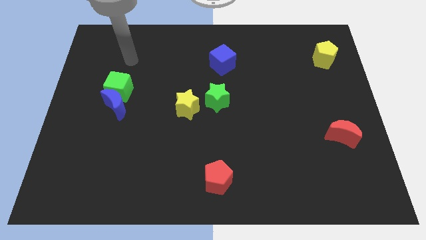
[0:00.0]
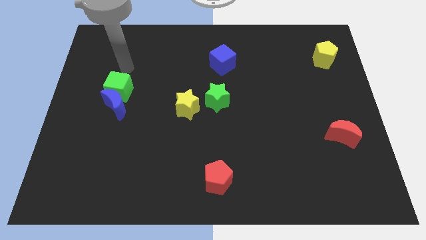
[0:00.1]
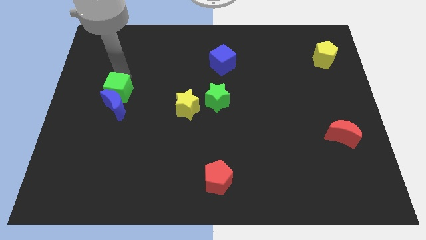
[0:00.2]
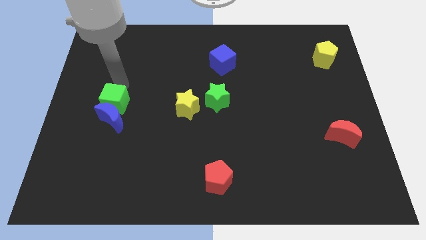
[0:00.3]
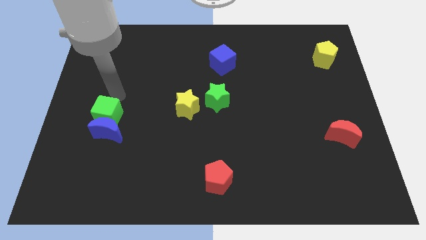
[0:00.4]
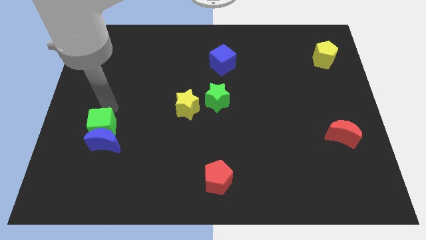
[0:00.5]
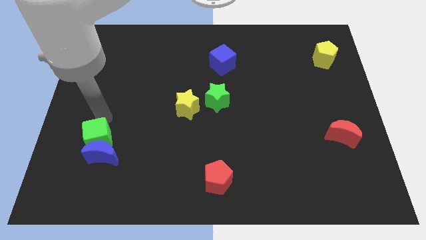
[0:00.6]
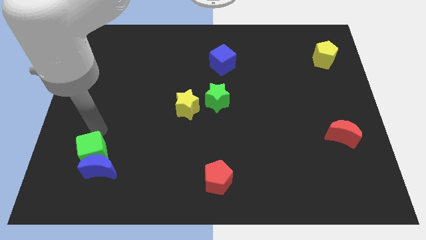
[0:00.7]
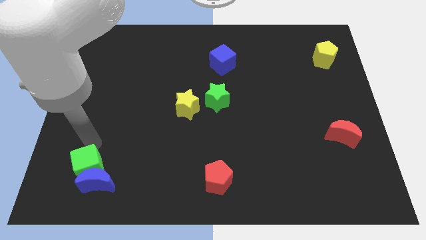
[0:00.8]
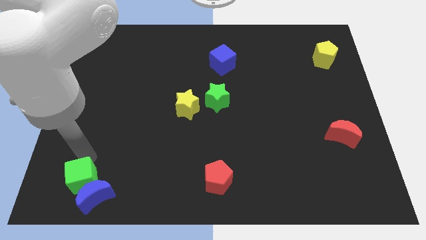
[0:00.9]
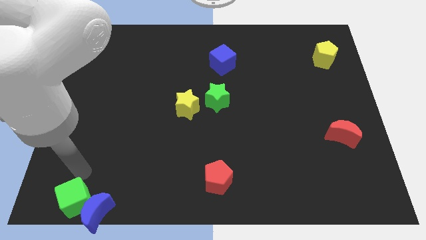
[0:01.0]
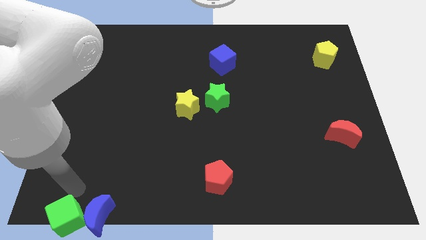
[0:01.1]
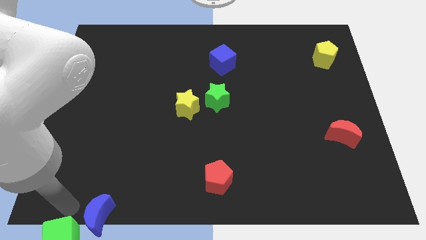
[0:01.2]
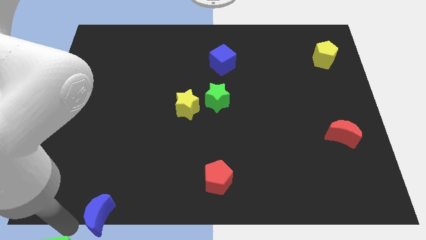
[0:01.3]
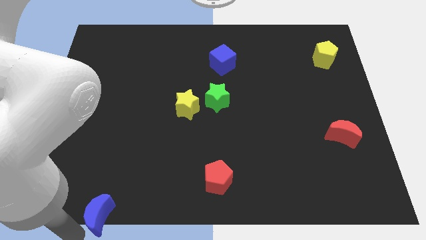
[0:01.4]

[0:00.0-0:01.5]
move the blue moon away from the green cube

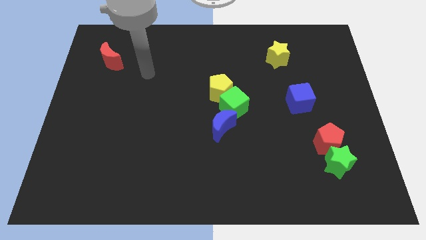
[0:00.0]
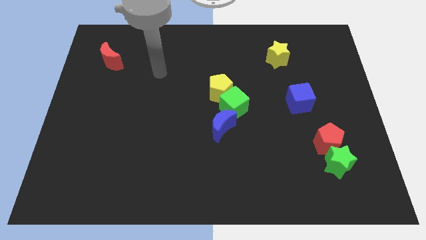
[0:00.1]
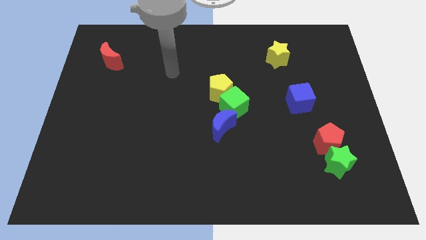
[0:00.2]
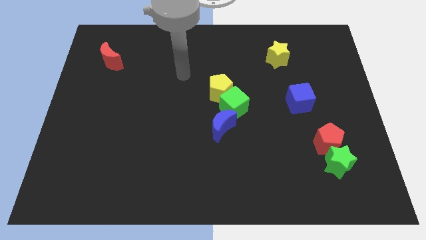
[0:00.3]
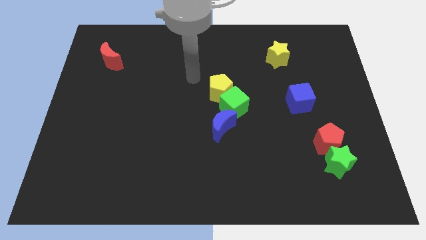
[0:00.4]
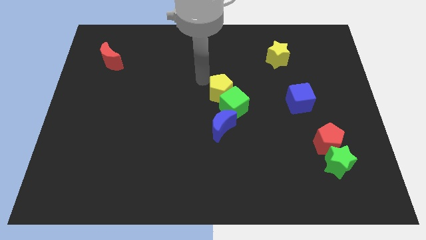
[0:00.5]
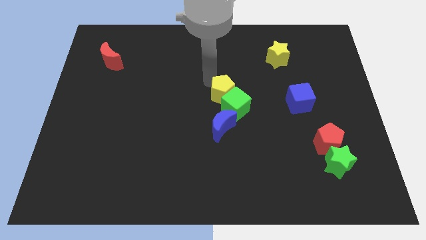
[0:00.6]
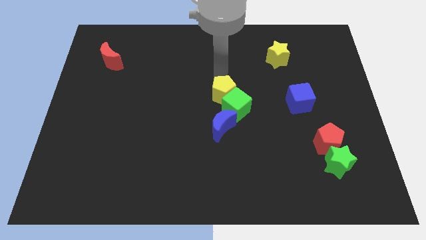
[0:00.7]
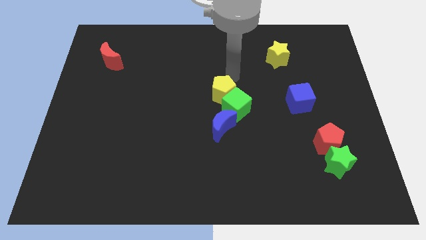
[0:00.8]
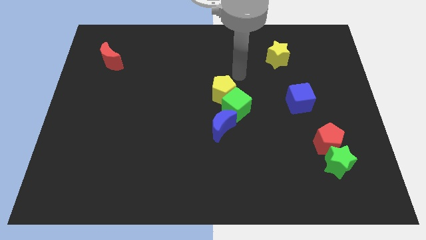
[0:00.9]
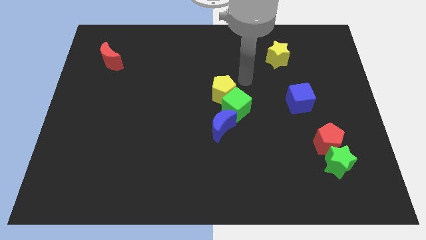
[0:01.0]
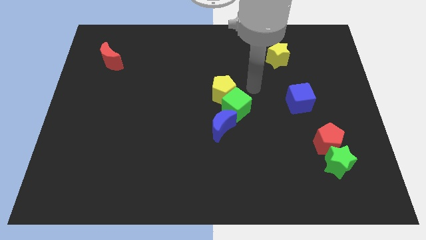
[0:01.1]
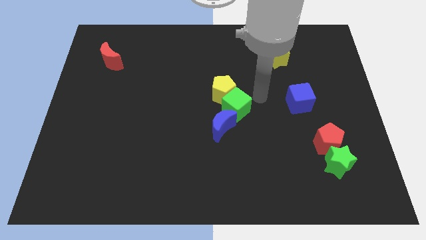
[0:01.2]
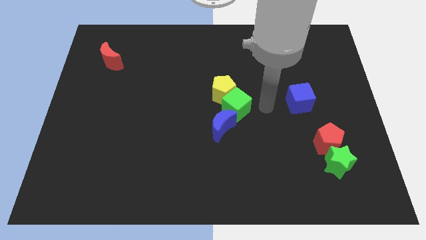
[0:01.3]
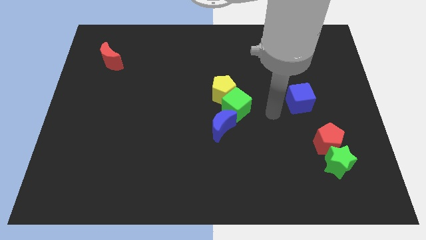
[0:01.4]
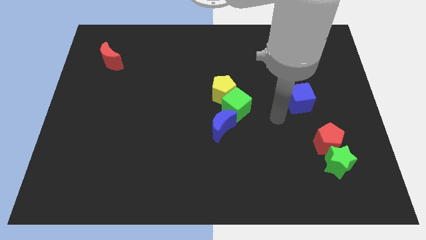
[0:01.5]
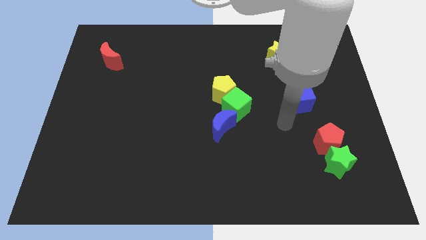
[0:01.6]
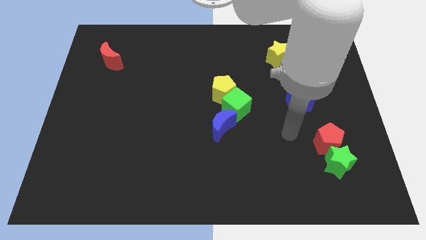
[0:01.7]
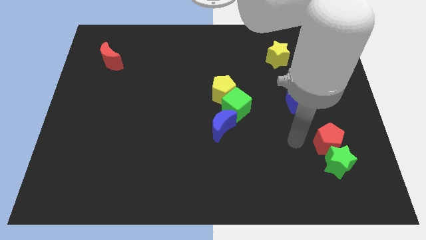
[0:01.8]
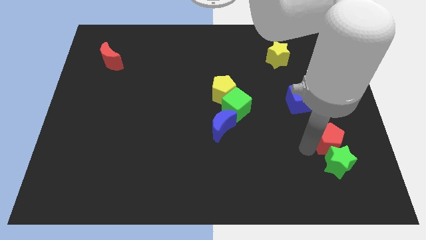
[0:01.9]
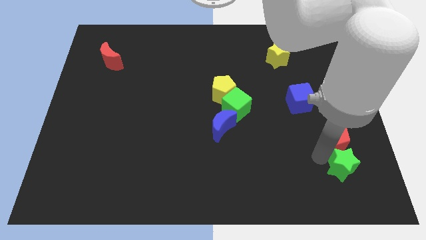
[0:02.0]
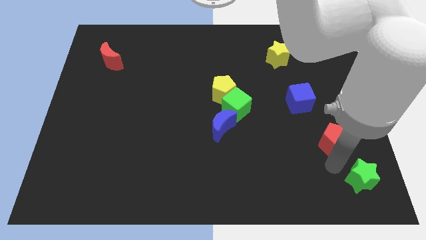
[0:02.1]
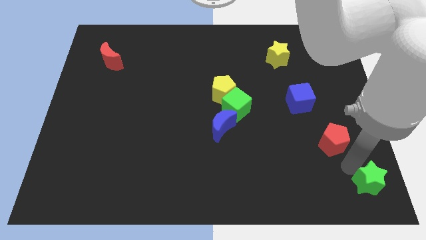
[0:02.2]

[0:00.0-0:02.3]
pull the red pentagon apart from the green star

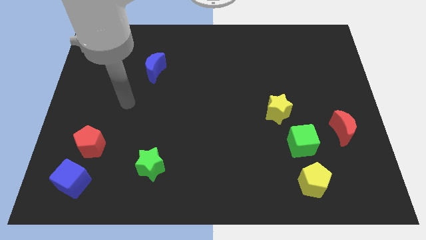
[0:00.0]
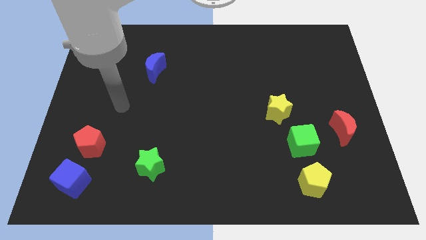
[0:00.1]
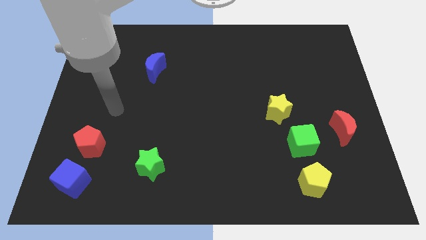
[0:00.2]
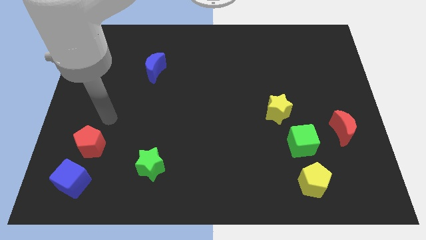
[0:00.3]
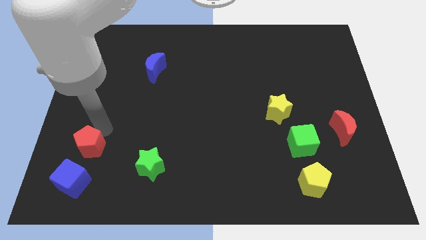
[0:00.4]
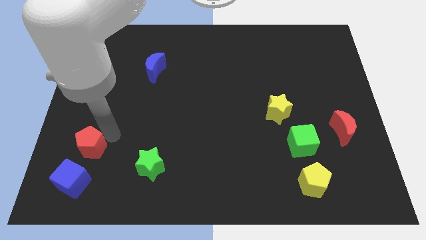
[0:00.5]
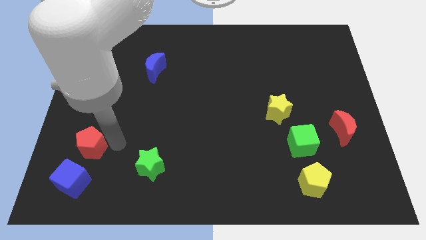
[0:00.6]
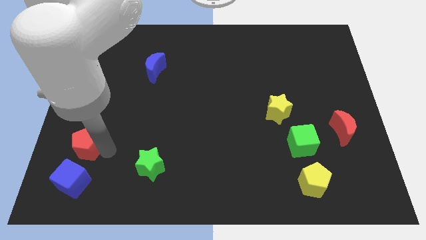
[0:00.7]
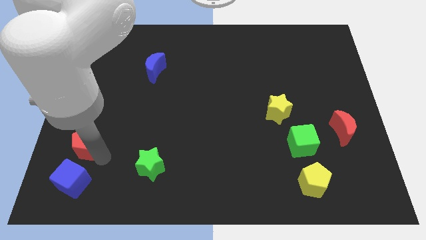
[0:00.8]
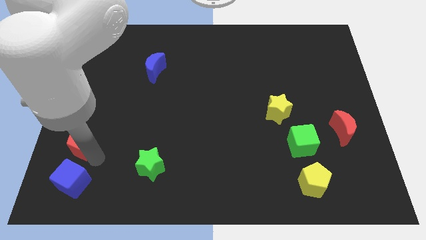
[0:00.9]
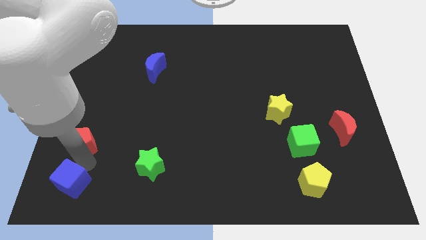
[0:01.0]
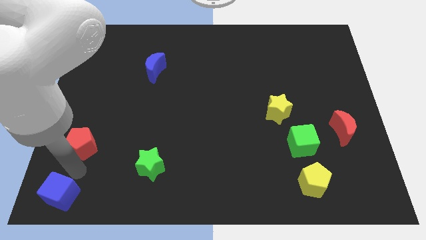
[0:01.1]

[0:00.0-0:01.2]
pull the red pentagon apart from the blue cube

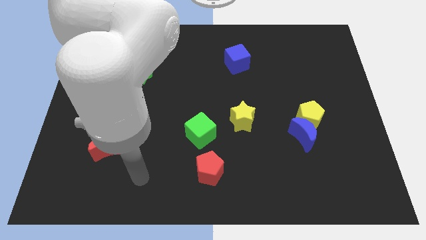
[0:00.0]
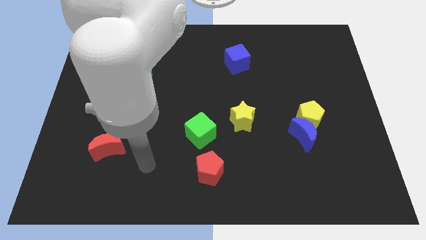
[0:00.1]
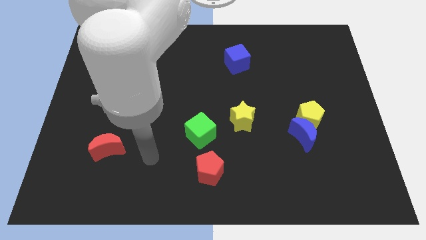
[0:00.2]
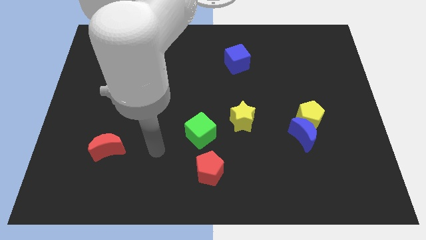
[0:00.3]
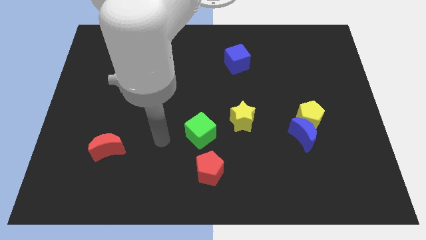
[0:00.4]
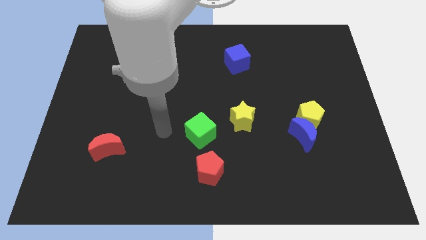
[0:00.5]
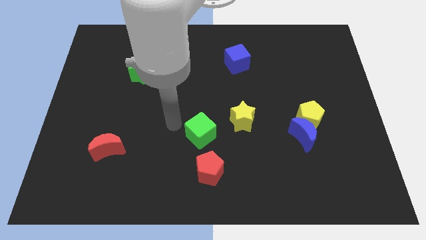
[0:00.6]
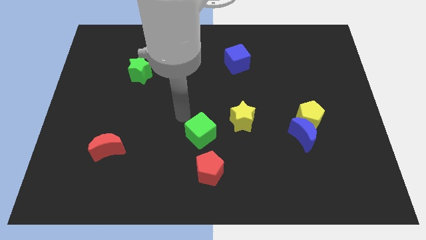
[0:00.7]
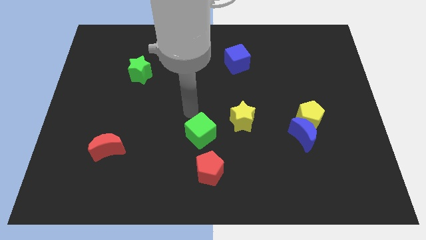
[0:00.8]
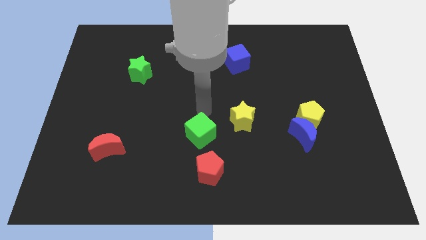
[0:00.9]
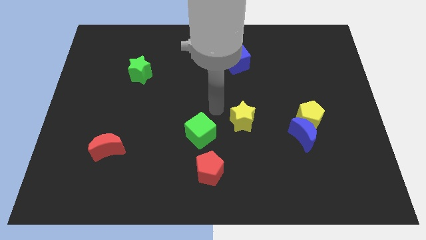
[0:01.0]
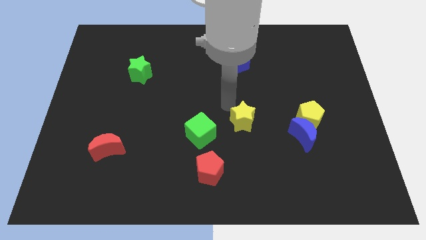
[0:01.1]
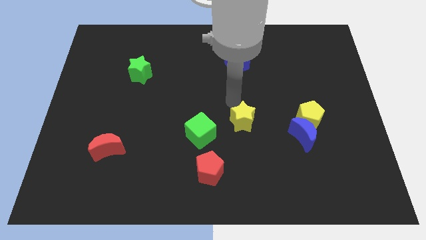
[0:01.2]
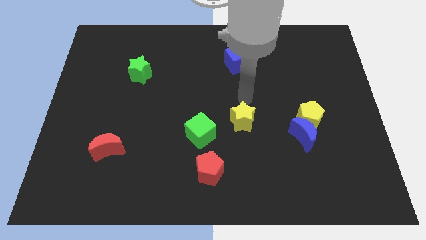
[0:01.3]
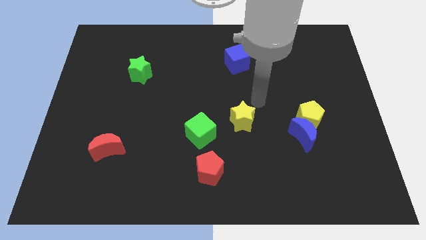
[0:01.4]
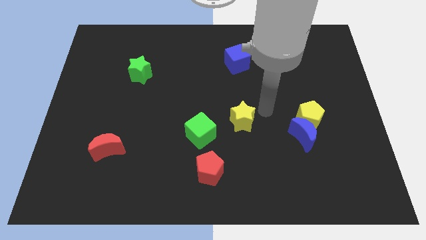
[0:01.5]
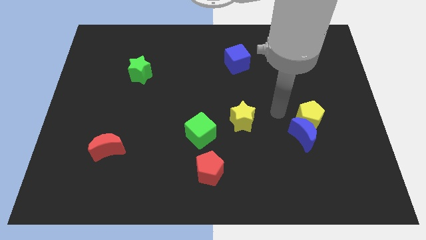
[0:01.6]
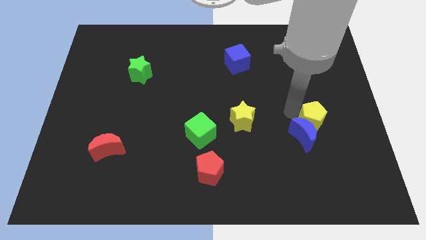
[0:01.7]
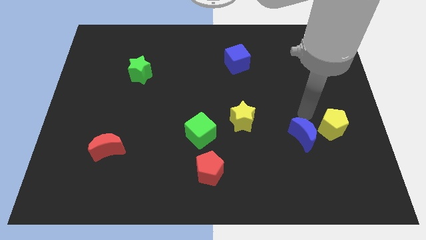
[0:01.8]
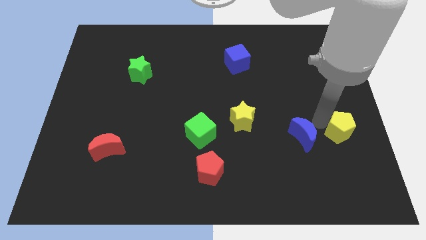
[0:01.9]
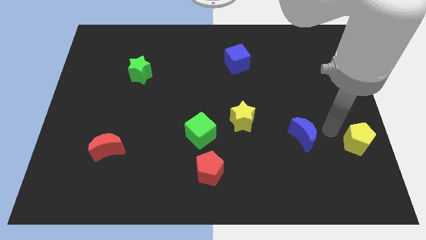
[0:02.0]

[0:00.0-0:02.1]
move the blue moon away from the yellow pentagon

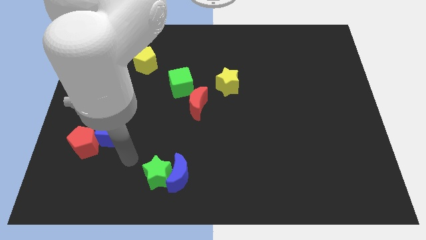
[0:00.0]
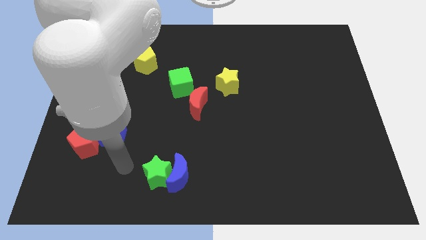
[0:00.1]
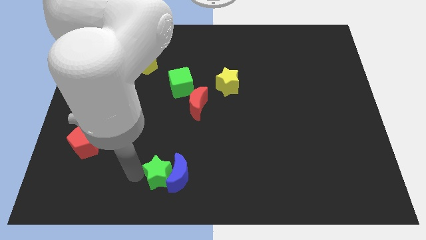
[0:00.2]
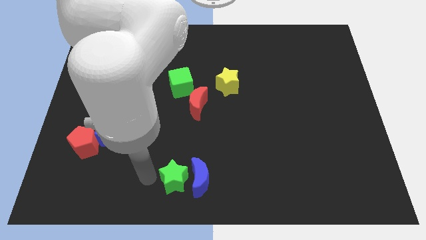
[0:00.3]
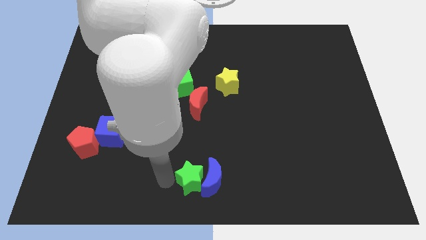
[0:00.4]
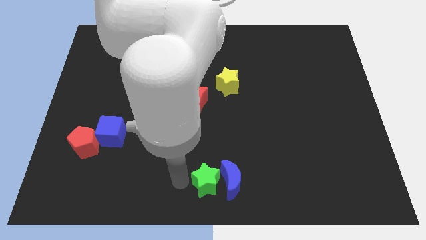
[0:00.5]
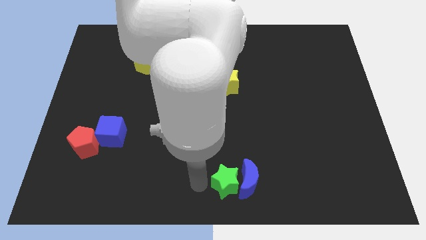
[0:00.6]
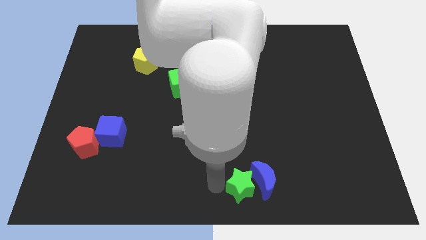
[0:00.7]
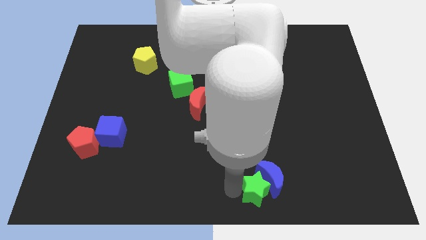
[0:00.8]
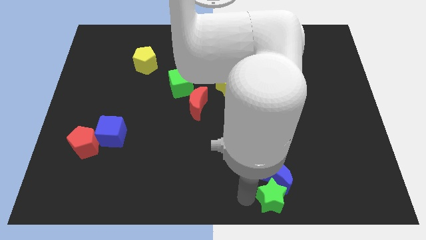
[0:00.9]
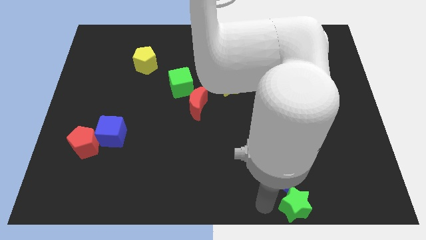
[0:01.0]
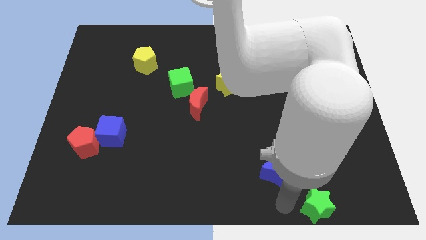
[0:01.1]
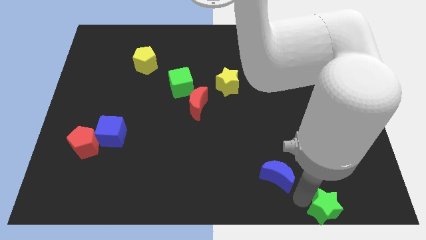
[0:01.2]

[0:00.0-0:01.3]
pull the blue moon apart from the green star

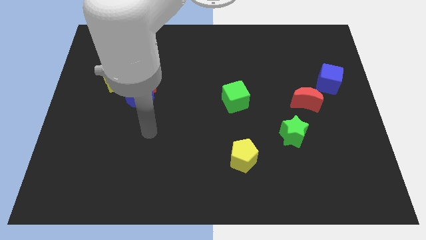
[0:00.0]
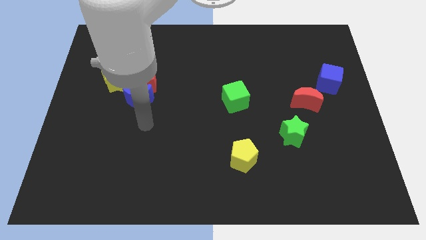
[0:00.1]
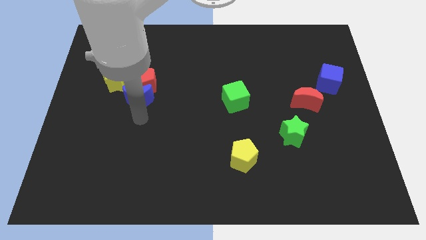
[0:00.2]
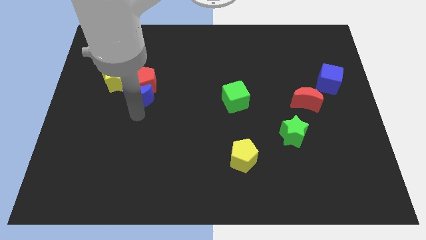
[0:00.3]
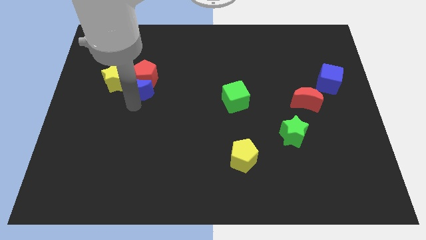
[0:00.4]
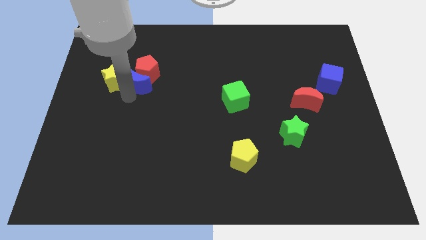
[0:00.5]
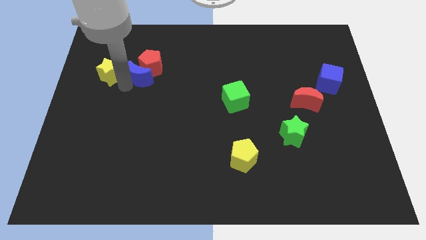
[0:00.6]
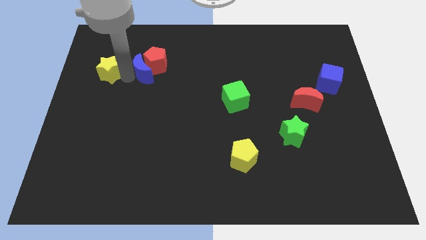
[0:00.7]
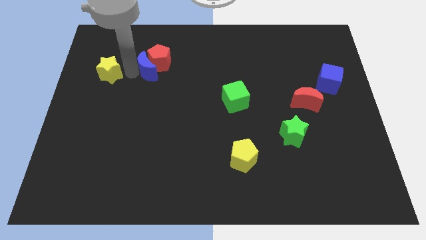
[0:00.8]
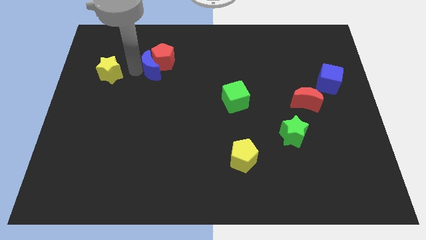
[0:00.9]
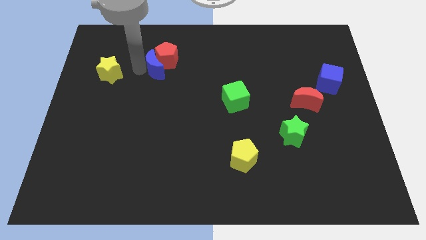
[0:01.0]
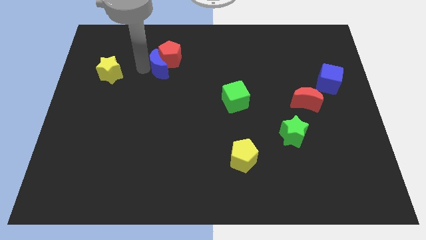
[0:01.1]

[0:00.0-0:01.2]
move the red pentagon away from the blue moon and yellow star
